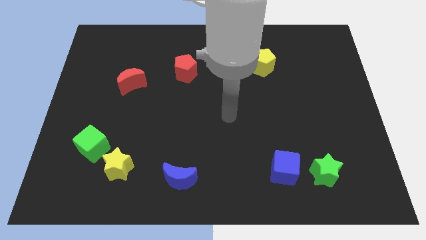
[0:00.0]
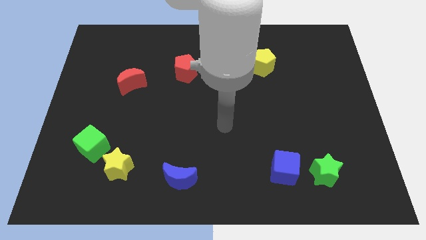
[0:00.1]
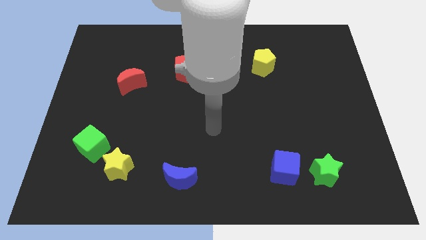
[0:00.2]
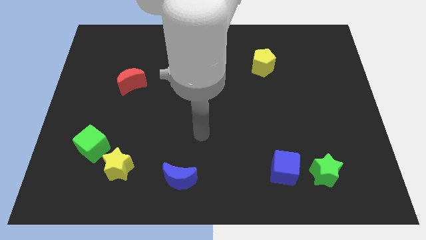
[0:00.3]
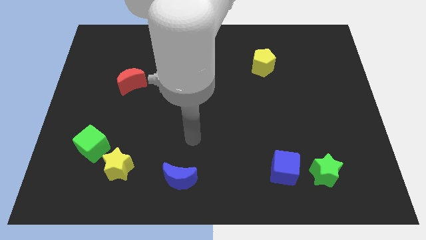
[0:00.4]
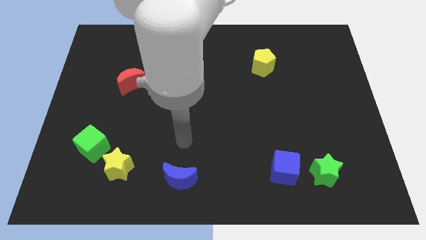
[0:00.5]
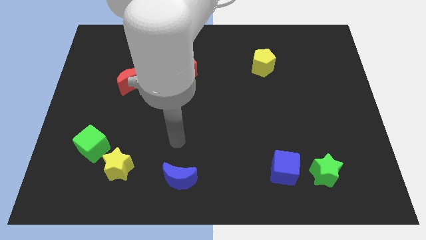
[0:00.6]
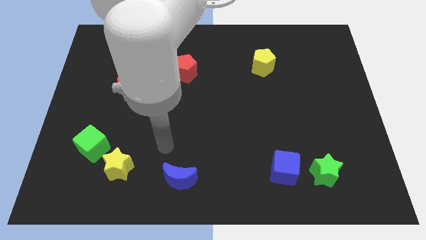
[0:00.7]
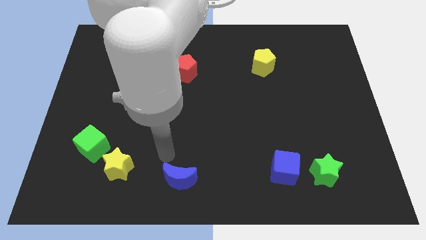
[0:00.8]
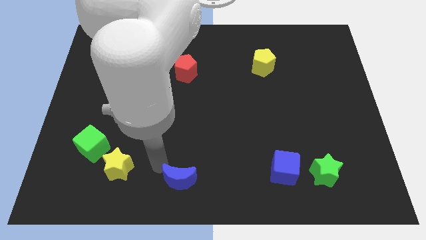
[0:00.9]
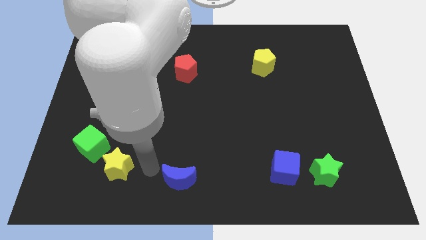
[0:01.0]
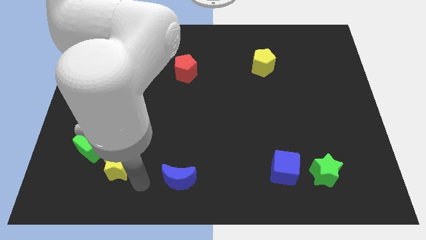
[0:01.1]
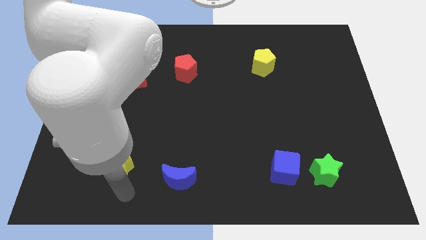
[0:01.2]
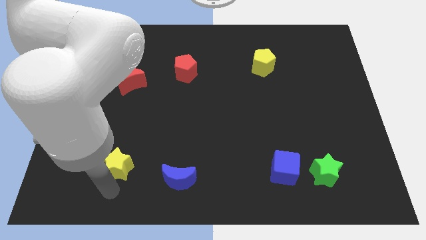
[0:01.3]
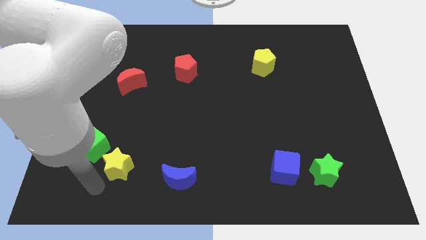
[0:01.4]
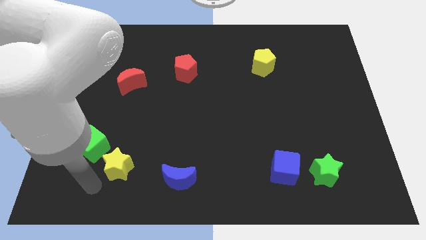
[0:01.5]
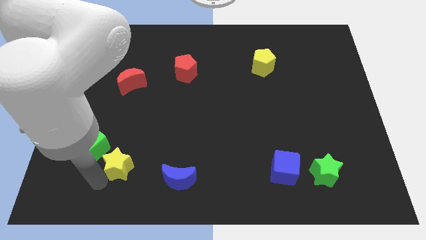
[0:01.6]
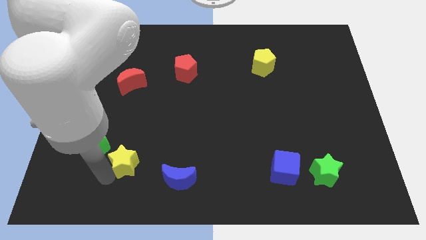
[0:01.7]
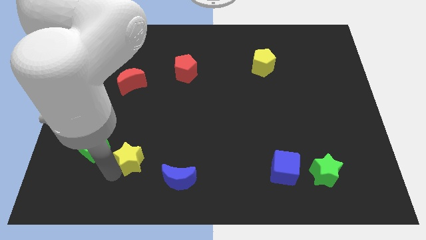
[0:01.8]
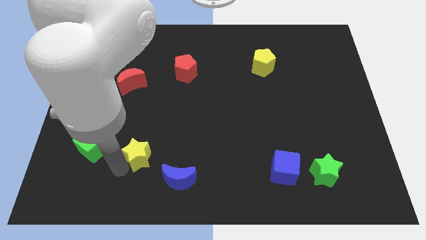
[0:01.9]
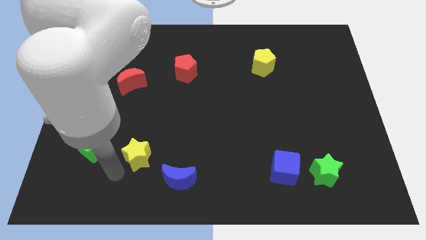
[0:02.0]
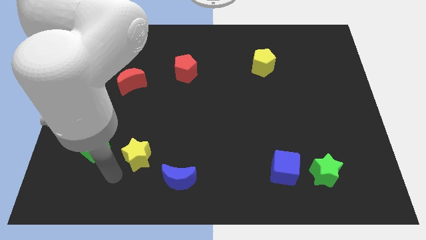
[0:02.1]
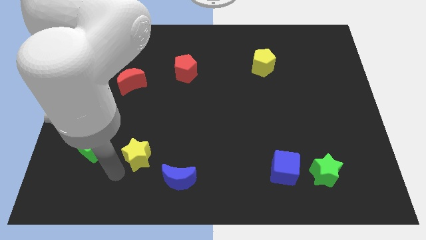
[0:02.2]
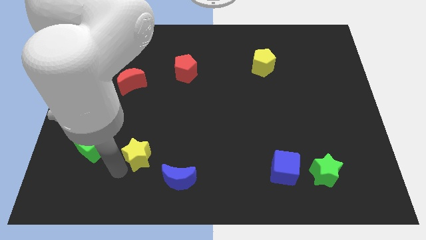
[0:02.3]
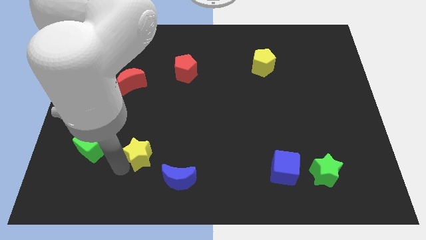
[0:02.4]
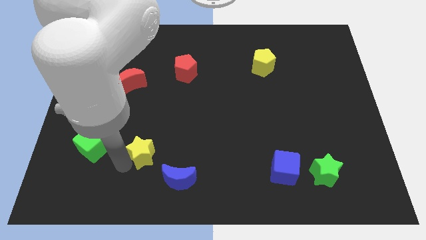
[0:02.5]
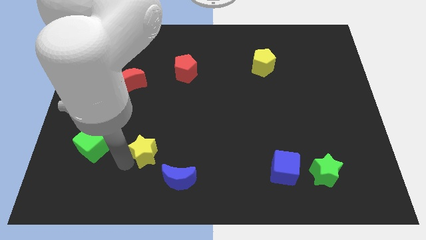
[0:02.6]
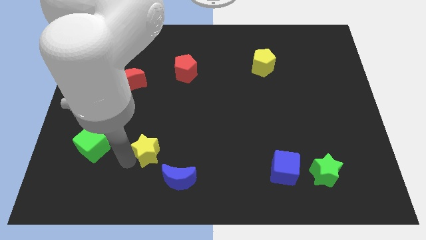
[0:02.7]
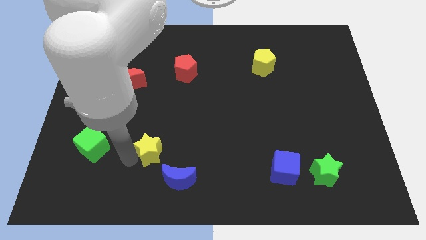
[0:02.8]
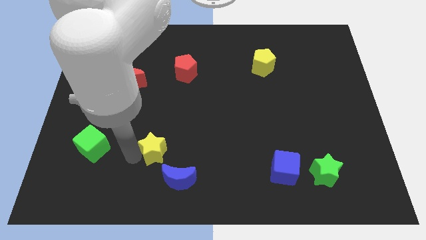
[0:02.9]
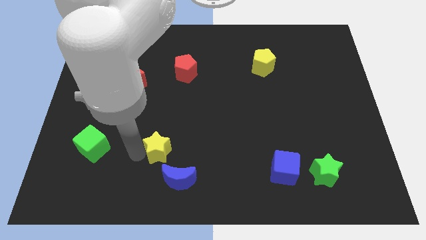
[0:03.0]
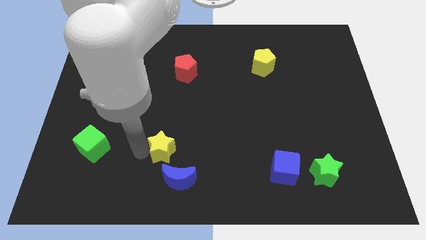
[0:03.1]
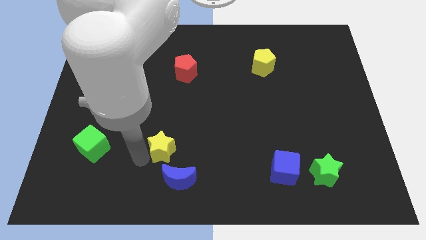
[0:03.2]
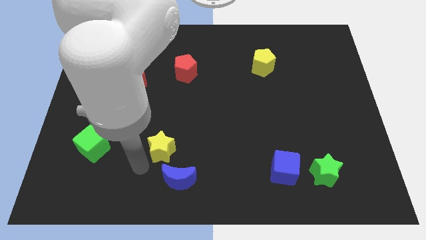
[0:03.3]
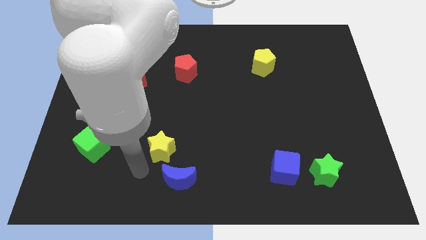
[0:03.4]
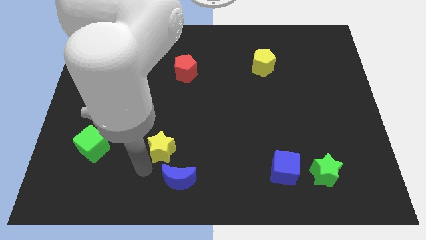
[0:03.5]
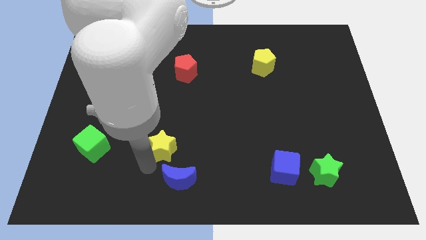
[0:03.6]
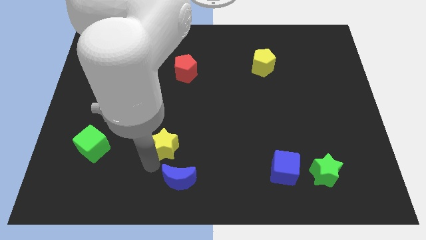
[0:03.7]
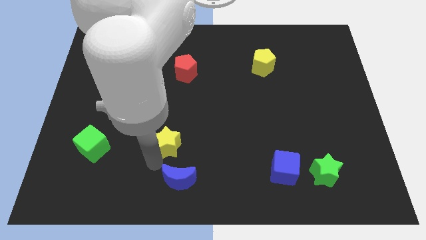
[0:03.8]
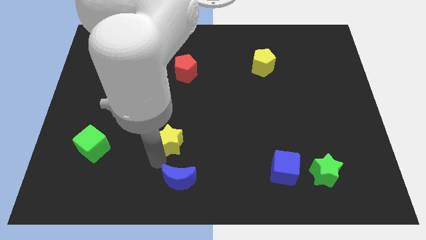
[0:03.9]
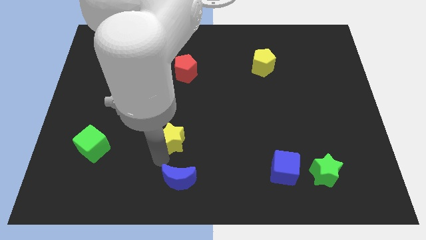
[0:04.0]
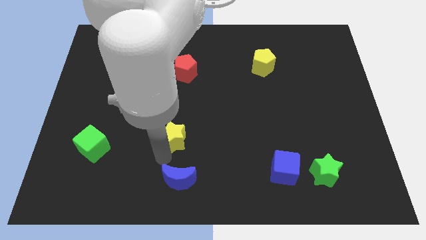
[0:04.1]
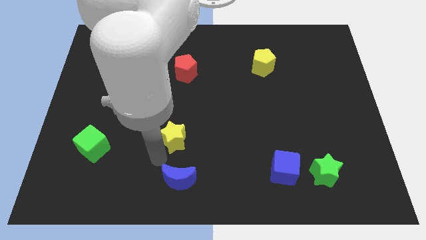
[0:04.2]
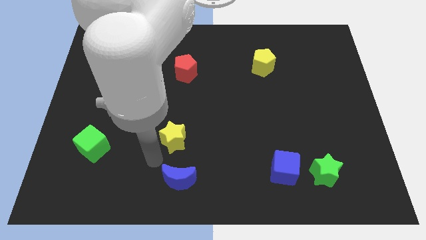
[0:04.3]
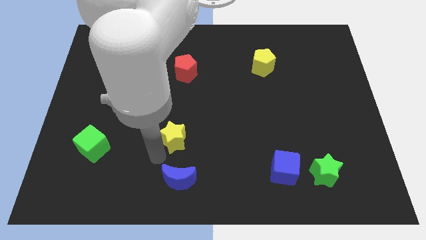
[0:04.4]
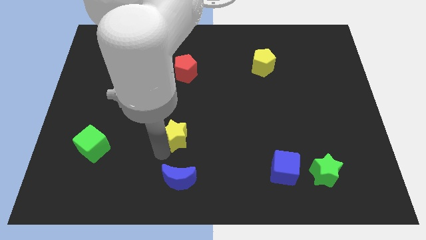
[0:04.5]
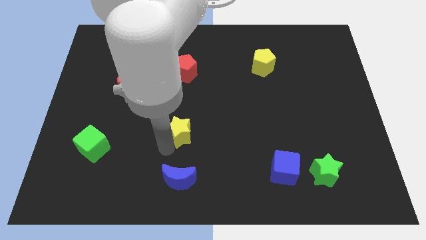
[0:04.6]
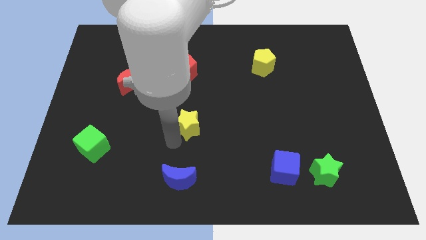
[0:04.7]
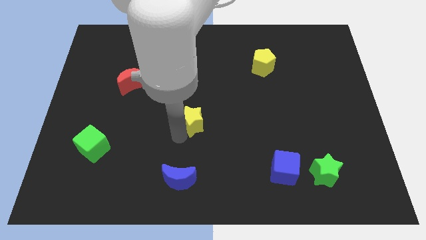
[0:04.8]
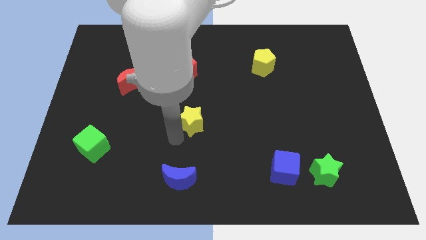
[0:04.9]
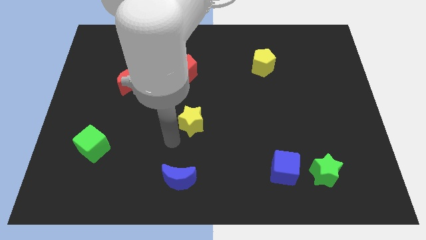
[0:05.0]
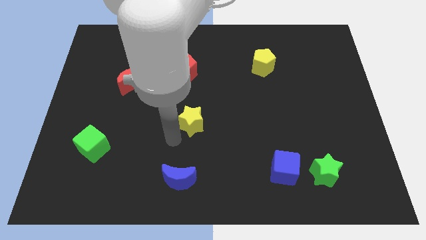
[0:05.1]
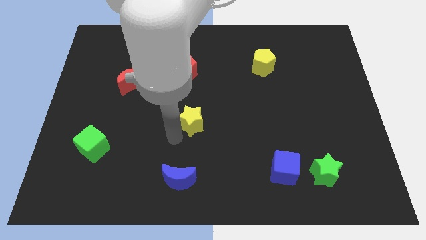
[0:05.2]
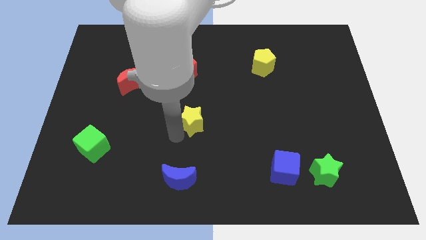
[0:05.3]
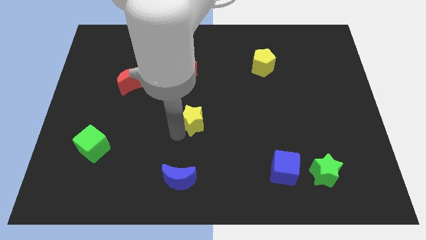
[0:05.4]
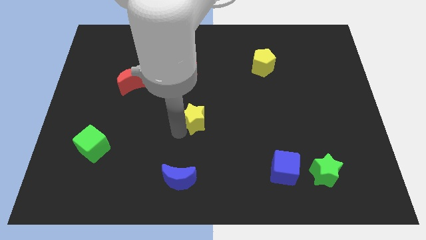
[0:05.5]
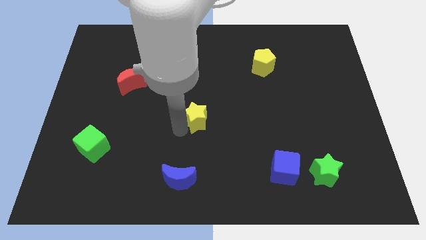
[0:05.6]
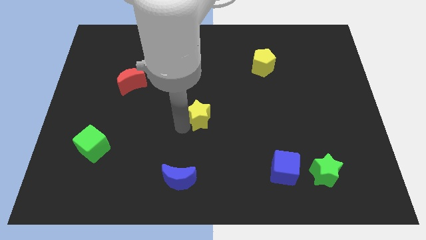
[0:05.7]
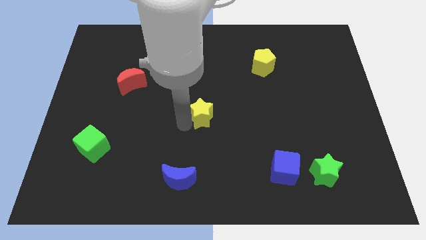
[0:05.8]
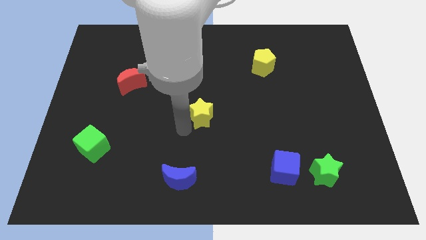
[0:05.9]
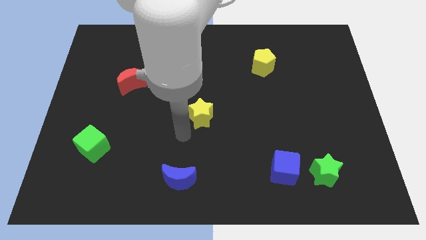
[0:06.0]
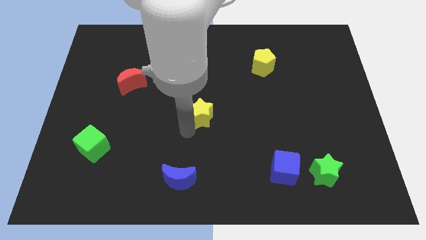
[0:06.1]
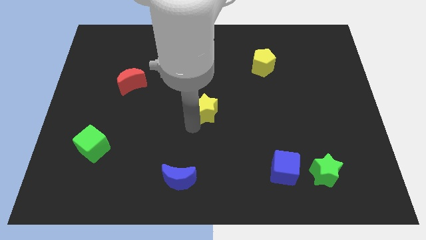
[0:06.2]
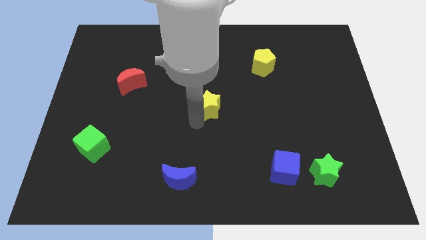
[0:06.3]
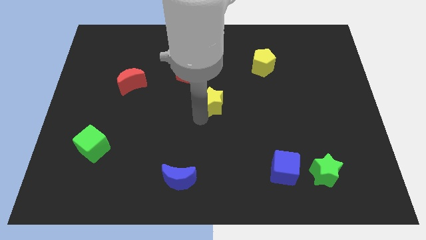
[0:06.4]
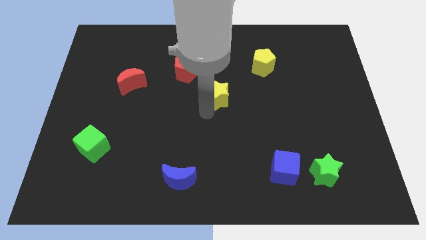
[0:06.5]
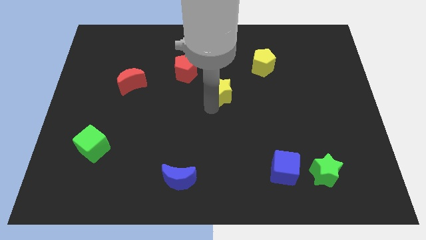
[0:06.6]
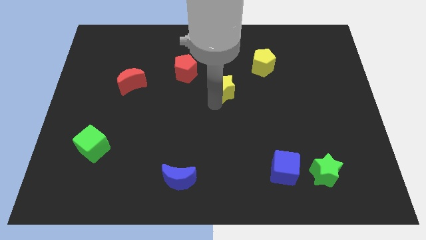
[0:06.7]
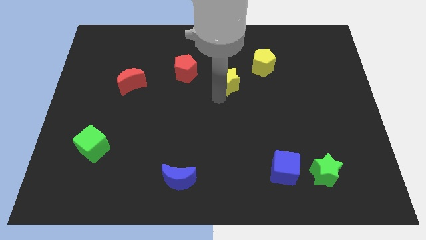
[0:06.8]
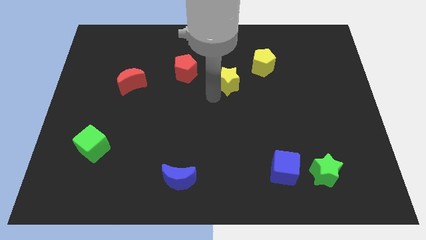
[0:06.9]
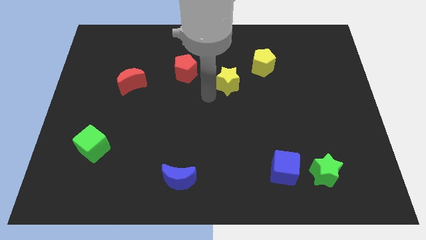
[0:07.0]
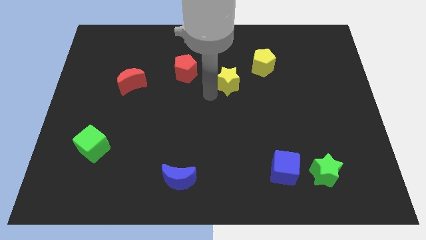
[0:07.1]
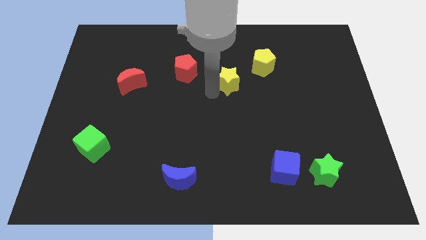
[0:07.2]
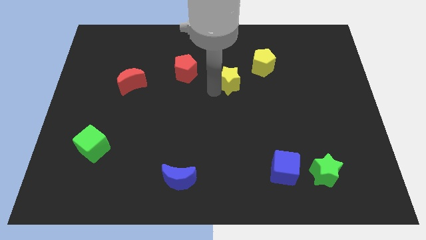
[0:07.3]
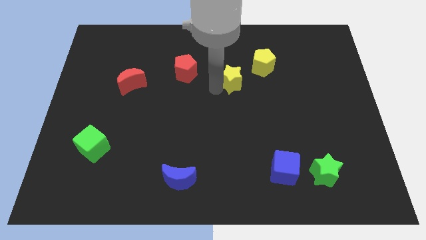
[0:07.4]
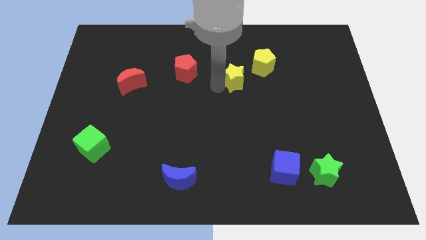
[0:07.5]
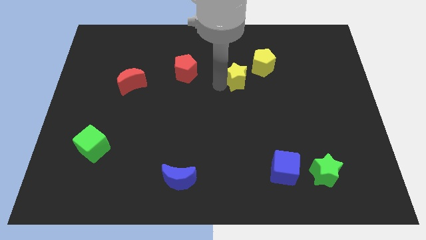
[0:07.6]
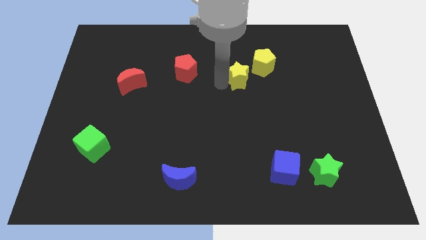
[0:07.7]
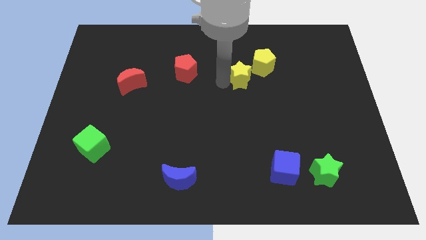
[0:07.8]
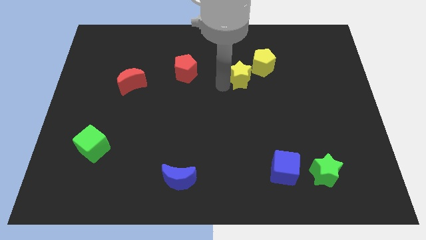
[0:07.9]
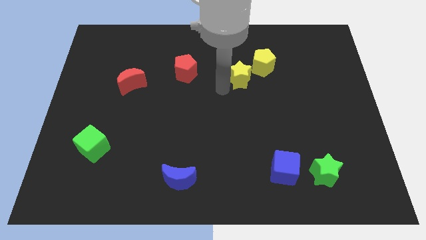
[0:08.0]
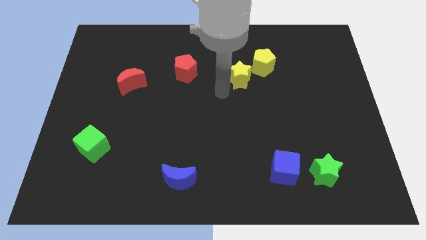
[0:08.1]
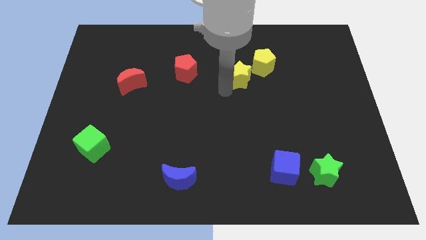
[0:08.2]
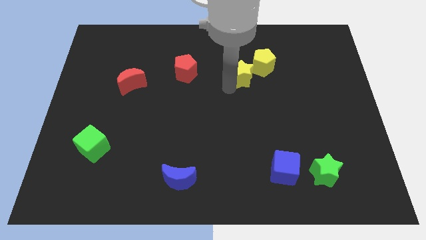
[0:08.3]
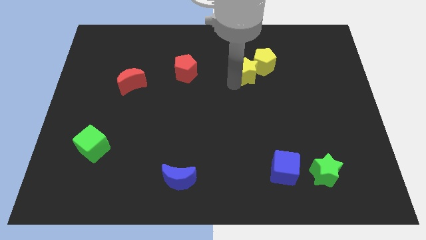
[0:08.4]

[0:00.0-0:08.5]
move the yellow star towards the yellow pentagon
